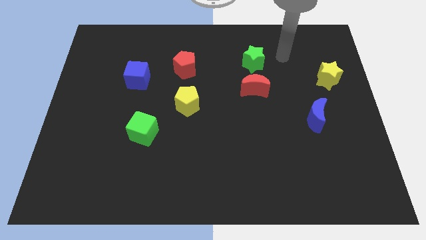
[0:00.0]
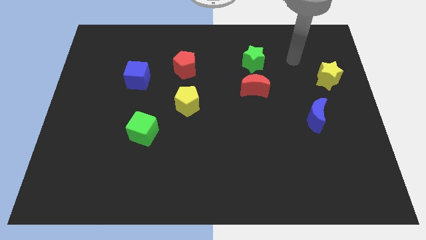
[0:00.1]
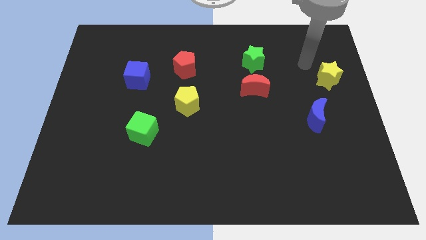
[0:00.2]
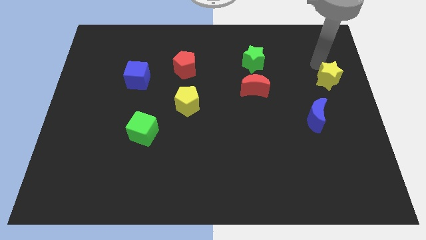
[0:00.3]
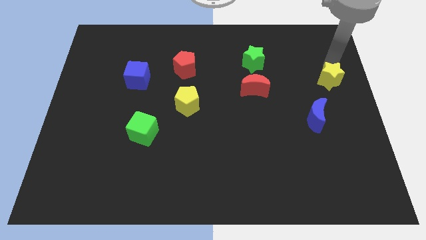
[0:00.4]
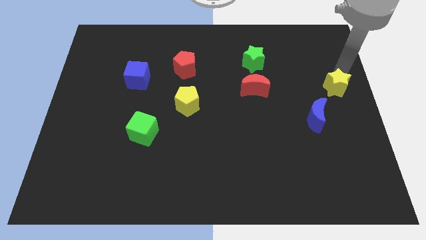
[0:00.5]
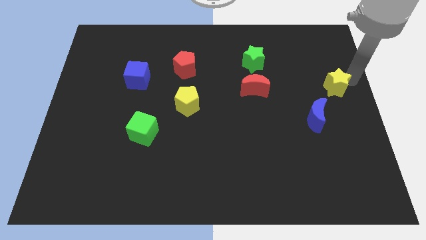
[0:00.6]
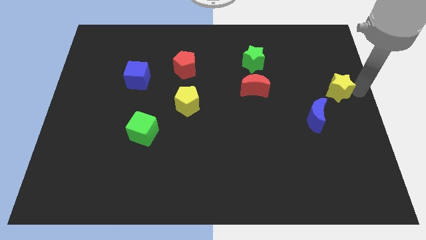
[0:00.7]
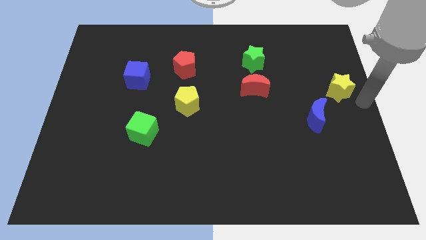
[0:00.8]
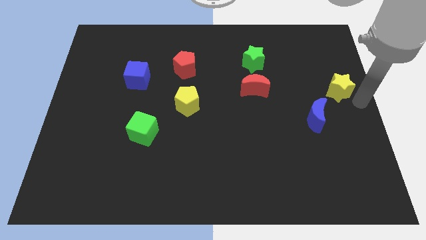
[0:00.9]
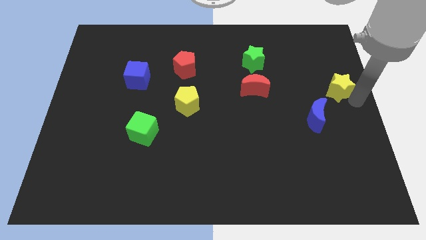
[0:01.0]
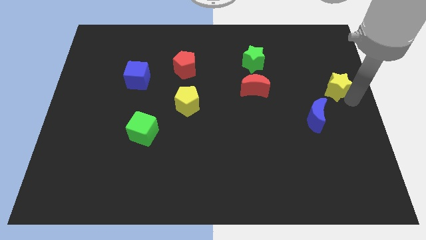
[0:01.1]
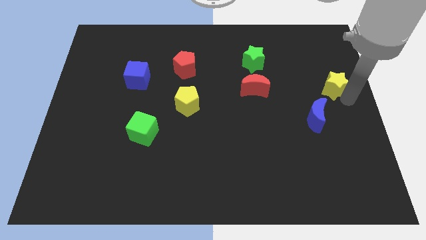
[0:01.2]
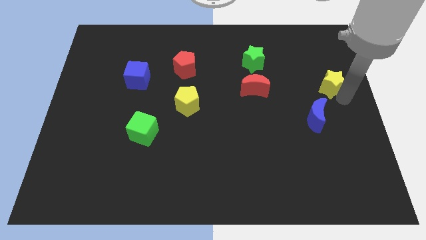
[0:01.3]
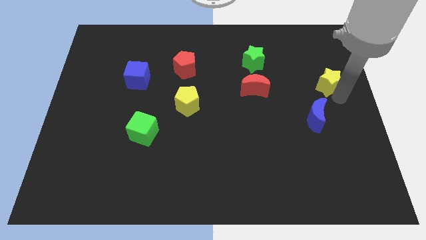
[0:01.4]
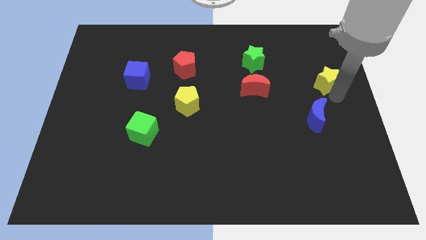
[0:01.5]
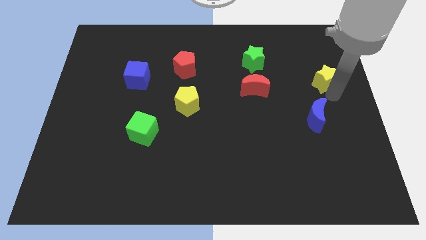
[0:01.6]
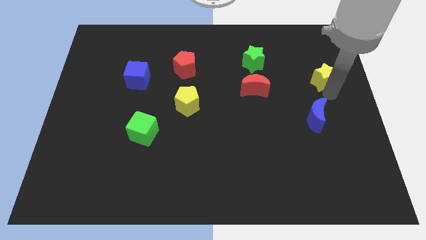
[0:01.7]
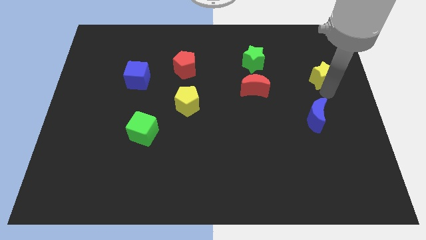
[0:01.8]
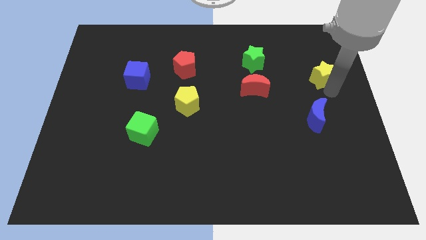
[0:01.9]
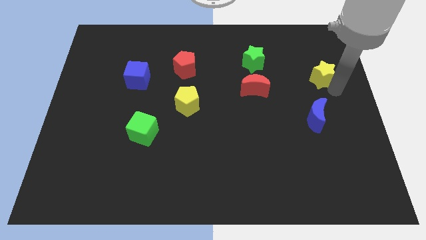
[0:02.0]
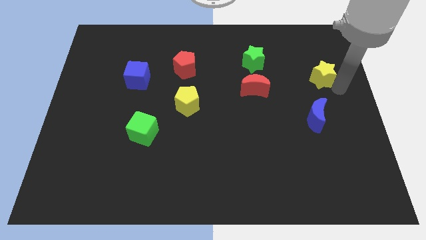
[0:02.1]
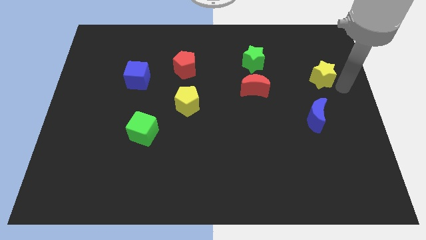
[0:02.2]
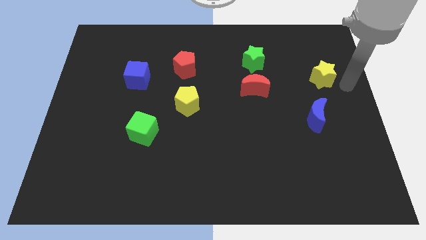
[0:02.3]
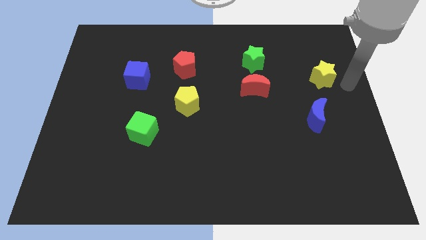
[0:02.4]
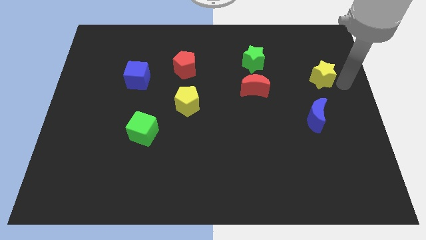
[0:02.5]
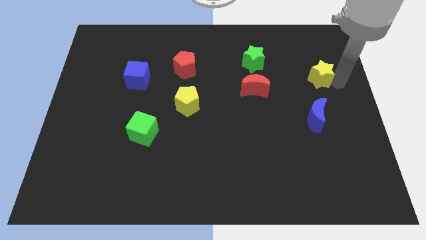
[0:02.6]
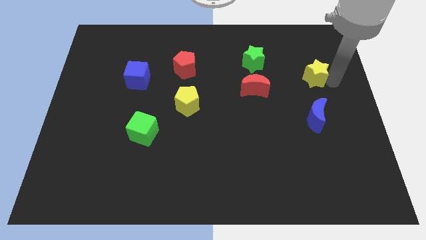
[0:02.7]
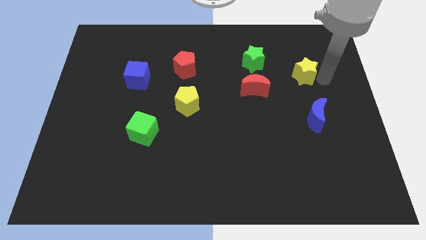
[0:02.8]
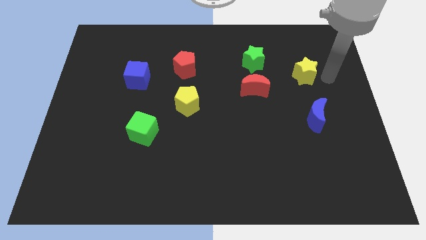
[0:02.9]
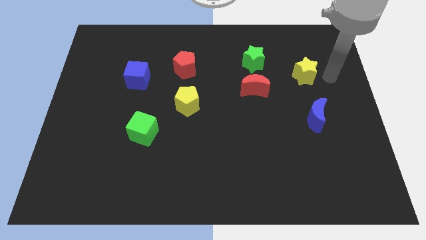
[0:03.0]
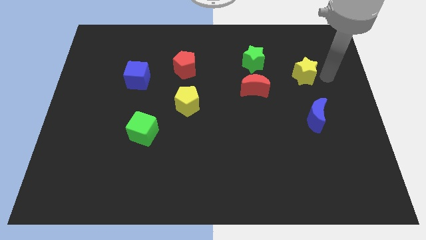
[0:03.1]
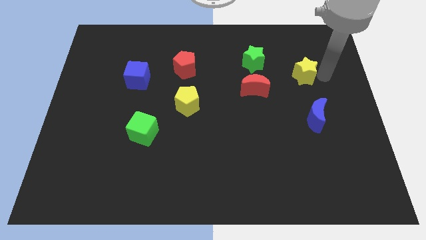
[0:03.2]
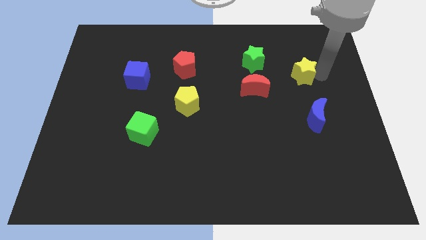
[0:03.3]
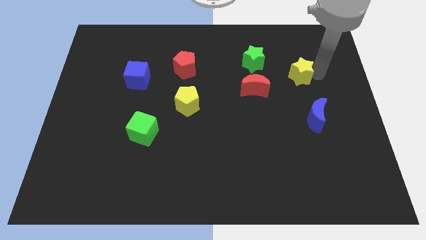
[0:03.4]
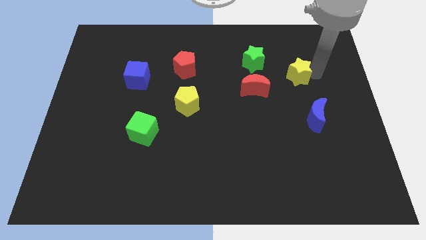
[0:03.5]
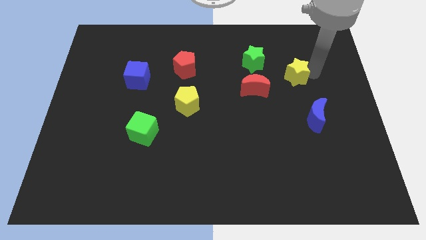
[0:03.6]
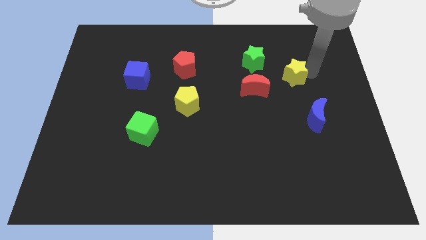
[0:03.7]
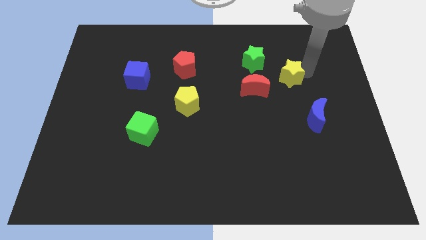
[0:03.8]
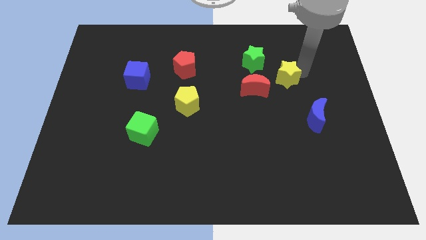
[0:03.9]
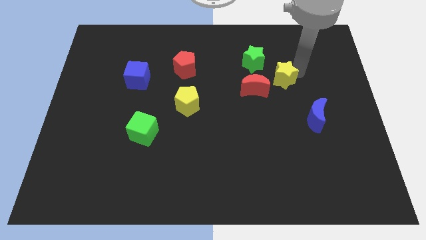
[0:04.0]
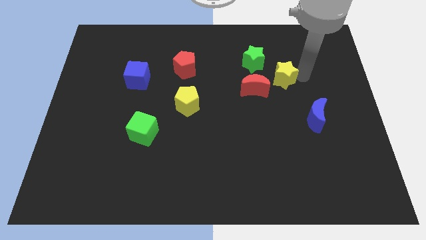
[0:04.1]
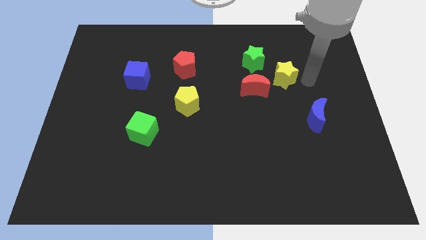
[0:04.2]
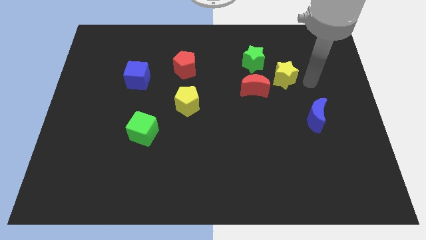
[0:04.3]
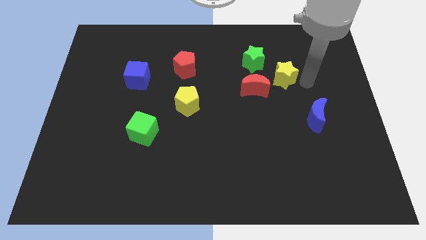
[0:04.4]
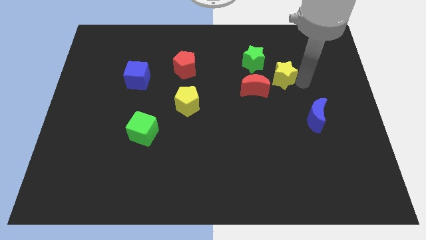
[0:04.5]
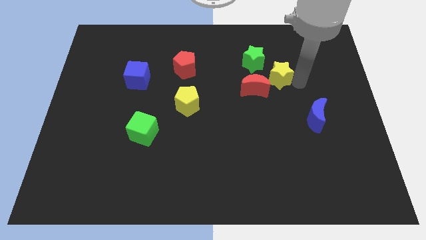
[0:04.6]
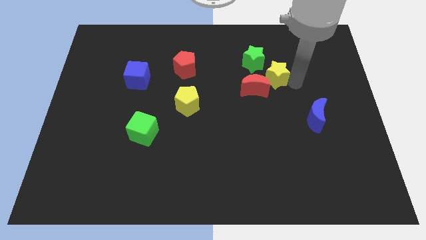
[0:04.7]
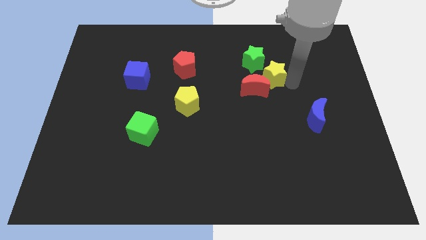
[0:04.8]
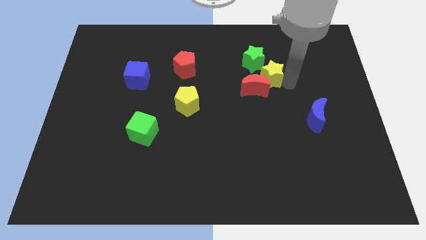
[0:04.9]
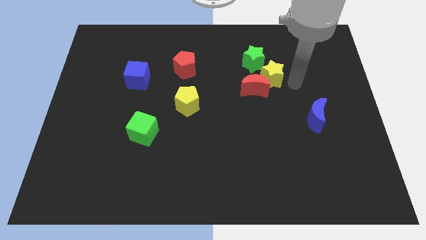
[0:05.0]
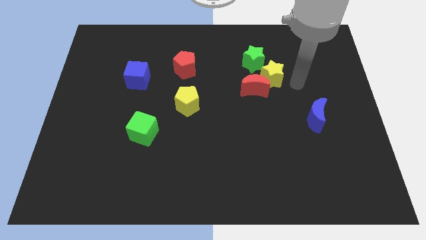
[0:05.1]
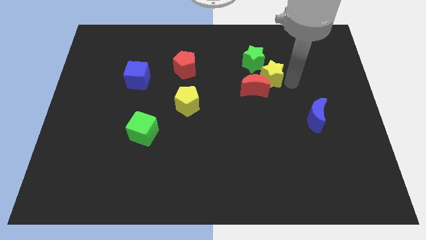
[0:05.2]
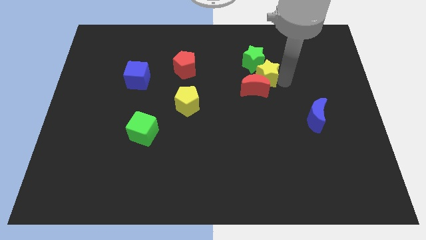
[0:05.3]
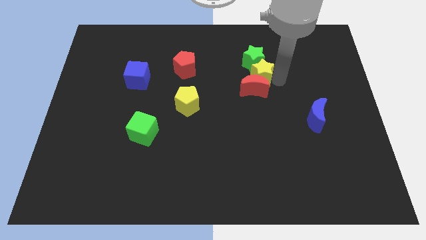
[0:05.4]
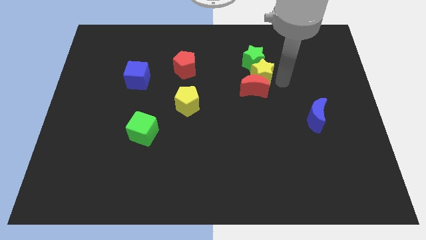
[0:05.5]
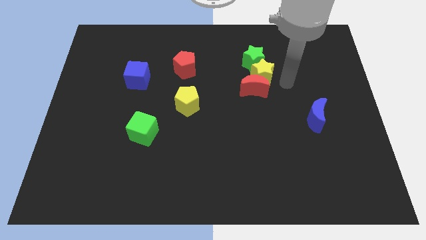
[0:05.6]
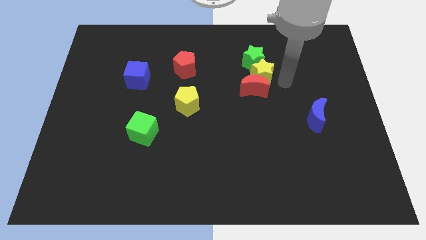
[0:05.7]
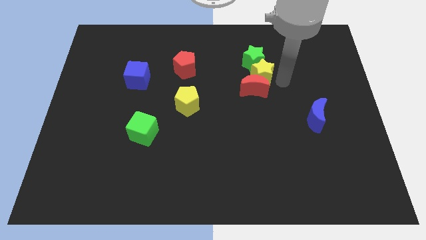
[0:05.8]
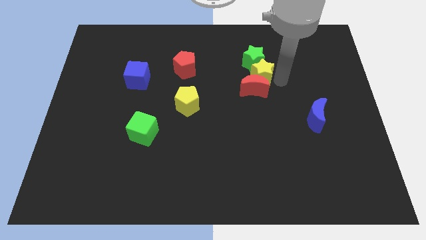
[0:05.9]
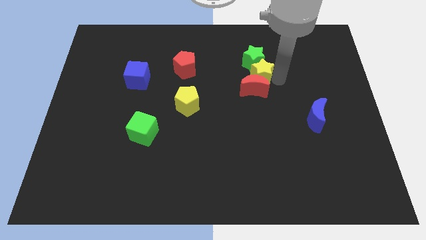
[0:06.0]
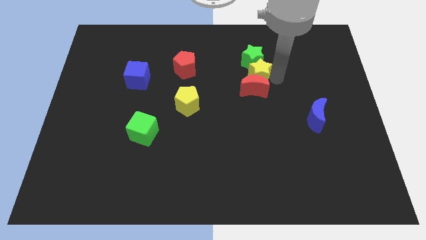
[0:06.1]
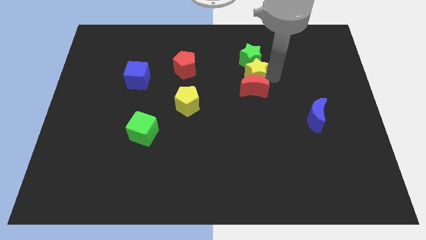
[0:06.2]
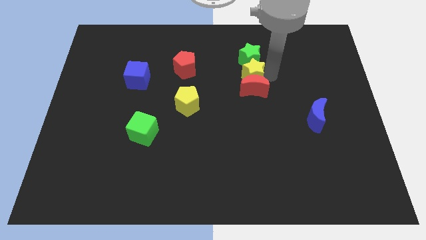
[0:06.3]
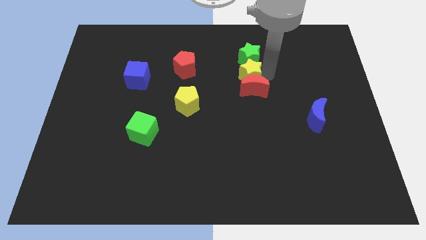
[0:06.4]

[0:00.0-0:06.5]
push the yellow star left

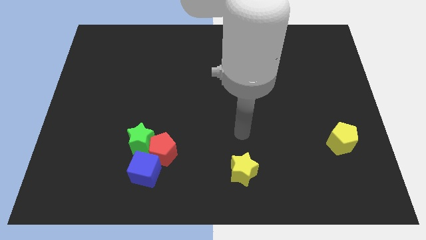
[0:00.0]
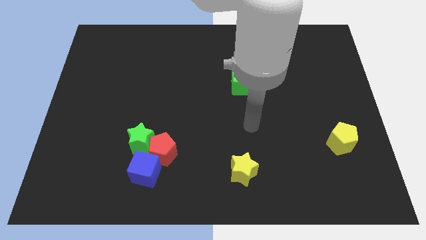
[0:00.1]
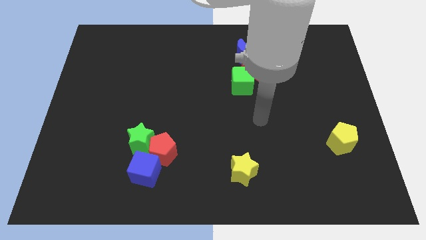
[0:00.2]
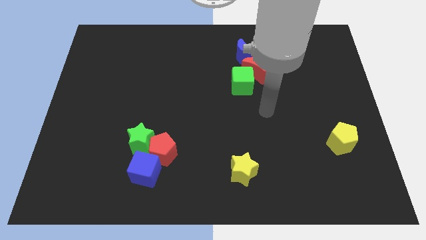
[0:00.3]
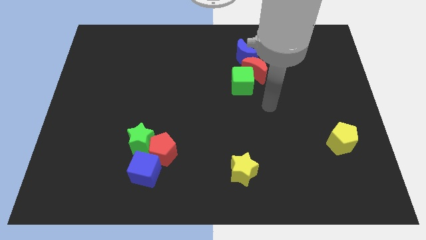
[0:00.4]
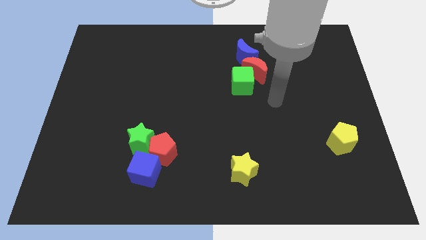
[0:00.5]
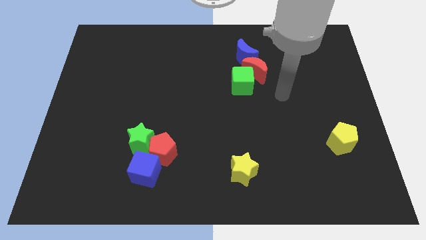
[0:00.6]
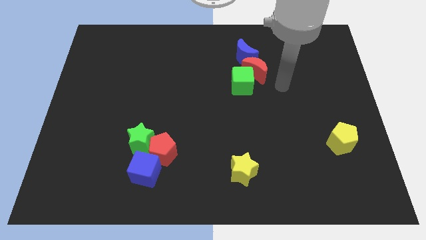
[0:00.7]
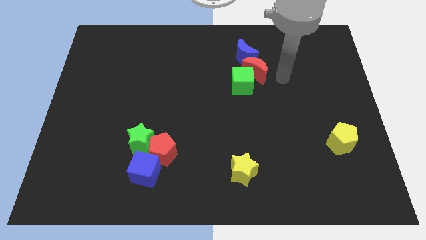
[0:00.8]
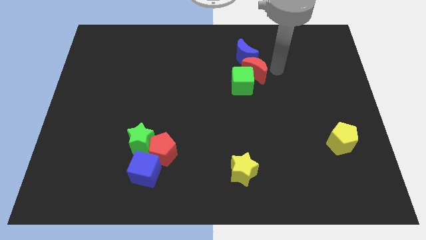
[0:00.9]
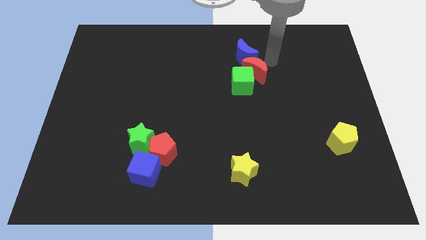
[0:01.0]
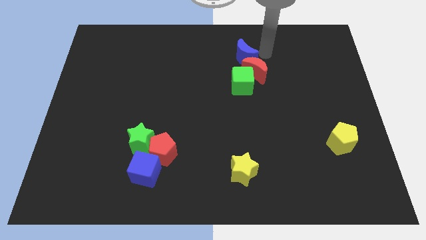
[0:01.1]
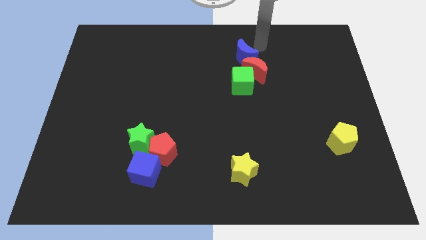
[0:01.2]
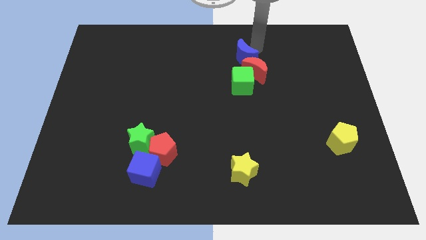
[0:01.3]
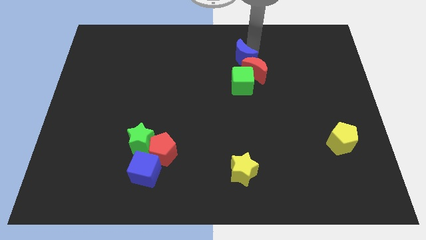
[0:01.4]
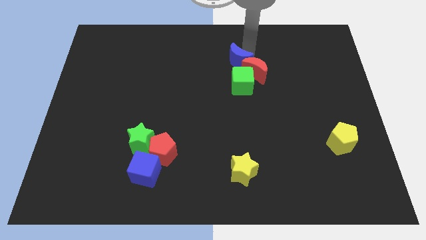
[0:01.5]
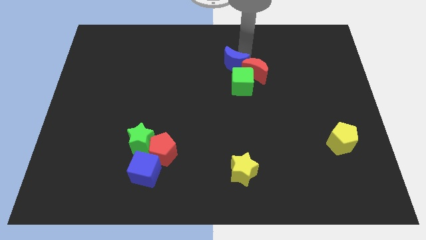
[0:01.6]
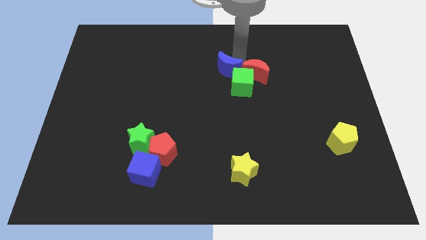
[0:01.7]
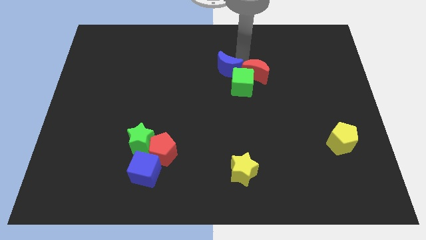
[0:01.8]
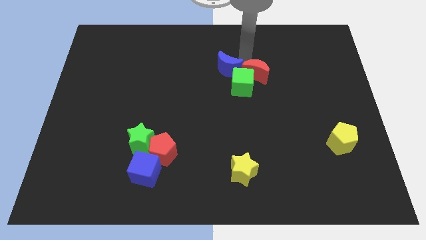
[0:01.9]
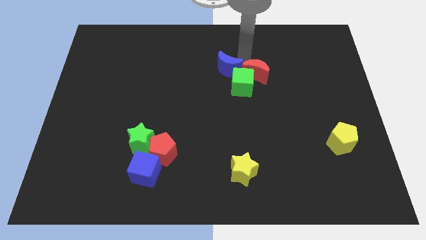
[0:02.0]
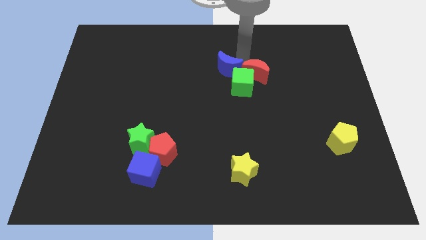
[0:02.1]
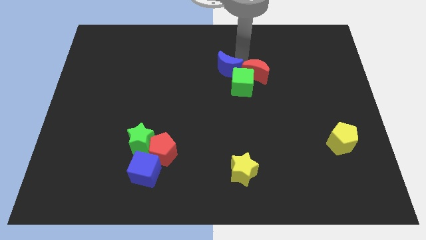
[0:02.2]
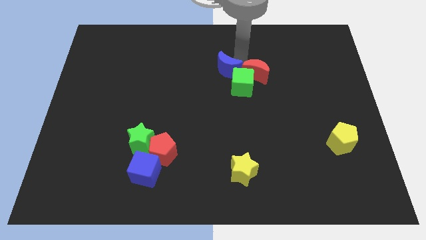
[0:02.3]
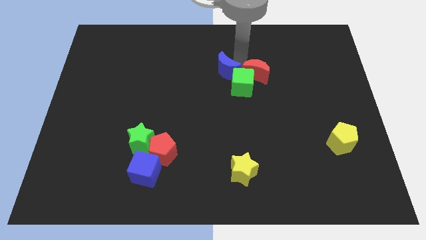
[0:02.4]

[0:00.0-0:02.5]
slightly slide the blue moon down and left diagonally
